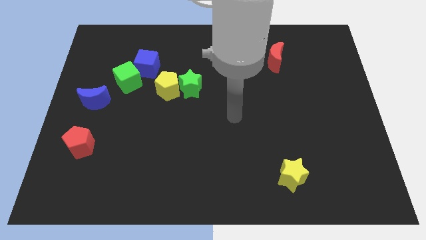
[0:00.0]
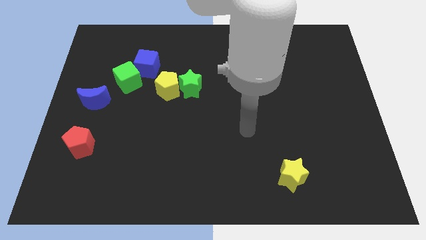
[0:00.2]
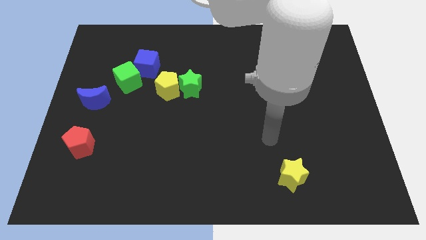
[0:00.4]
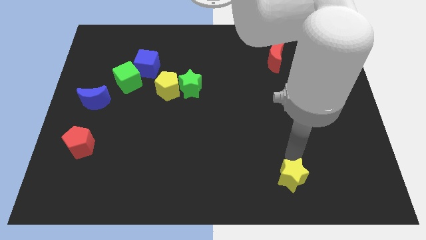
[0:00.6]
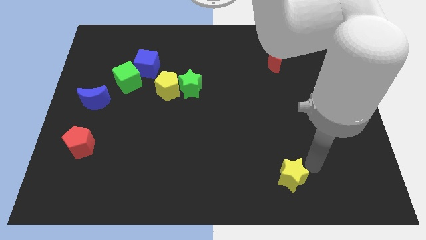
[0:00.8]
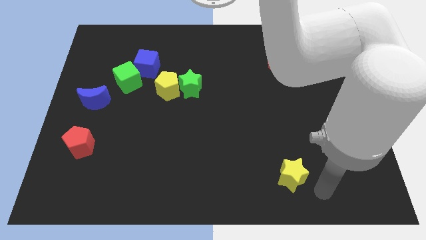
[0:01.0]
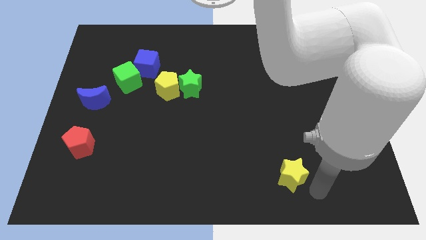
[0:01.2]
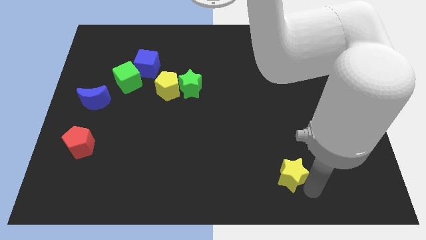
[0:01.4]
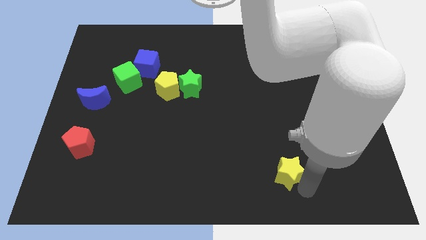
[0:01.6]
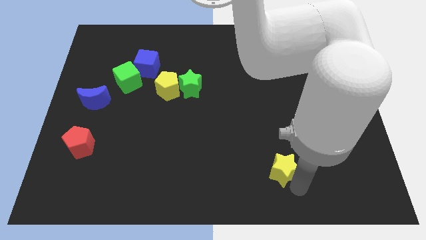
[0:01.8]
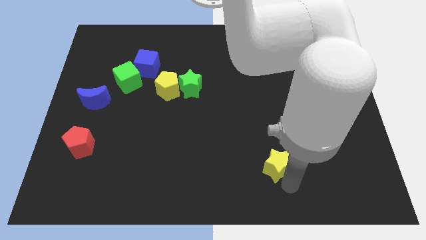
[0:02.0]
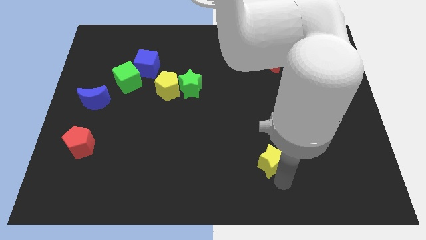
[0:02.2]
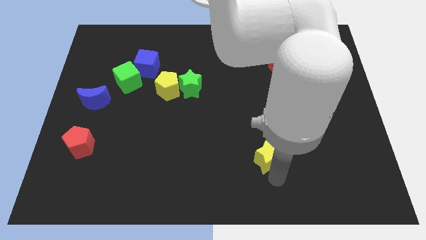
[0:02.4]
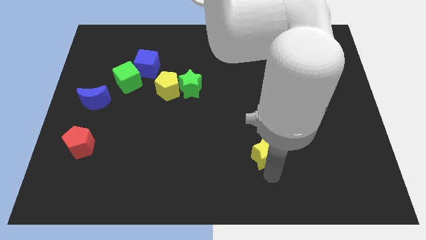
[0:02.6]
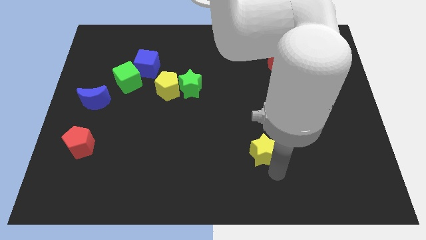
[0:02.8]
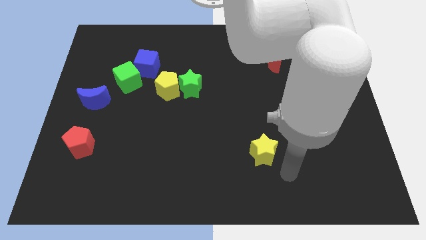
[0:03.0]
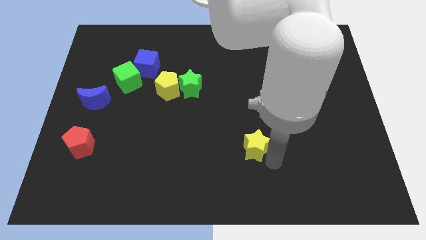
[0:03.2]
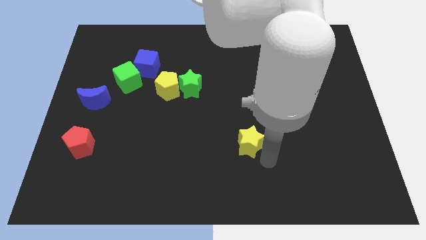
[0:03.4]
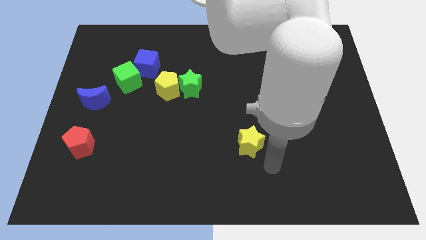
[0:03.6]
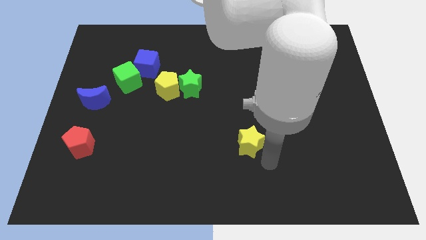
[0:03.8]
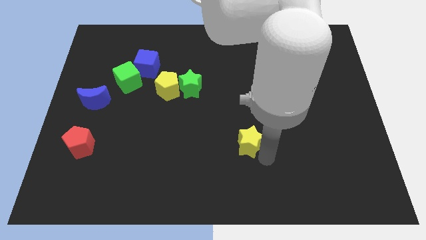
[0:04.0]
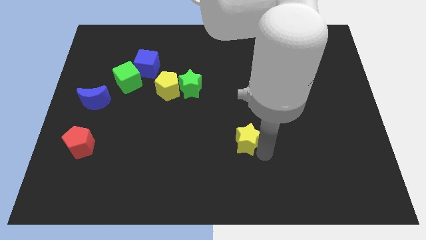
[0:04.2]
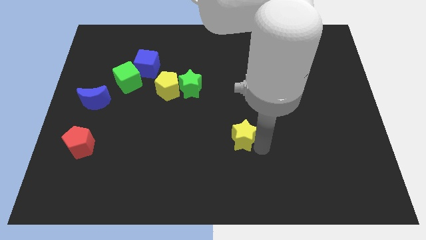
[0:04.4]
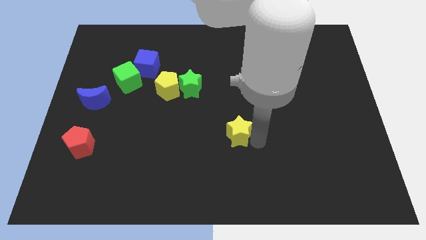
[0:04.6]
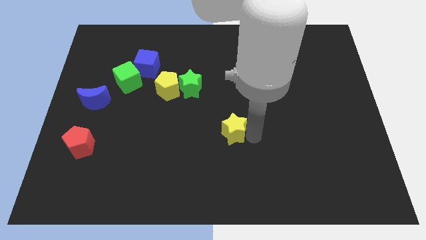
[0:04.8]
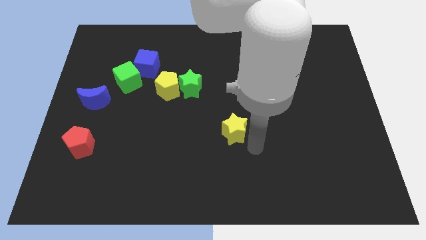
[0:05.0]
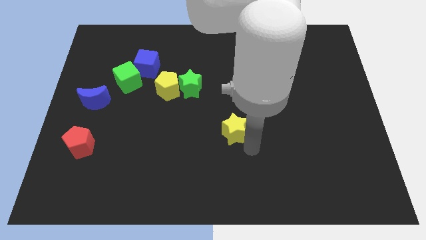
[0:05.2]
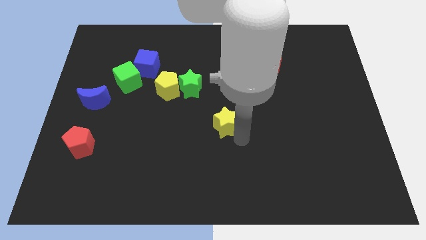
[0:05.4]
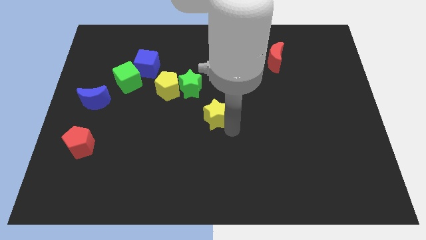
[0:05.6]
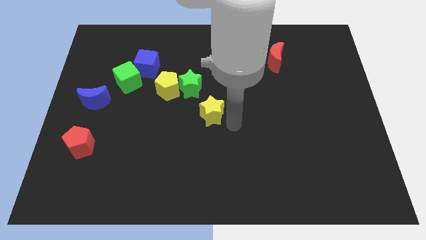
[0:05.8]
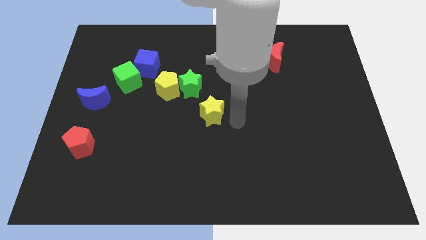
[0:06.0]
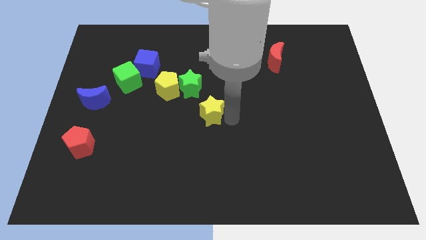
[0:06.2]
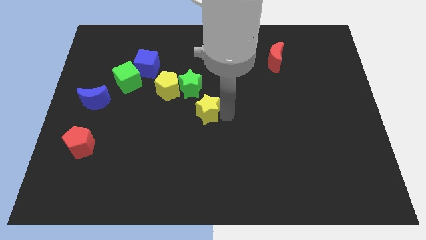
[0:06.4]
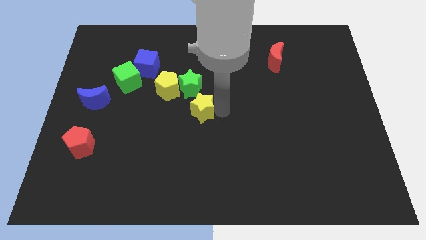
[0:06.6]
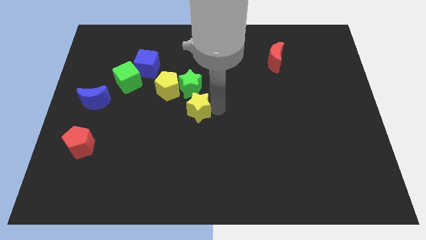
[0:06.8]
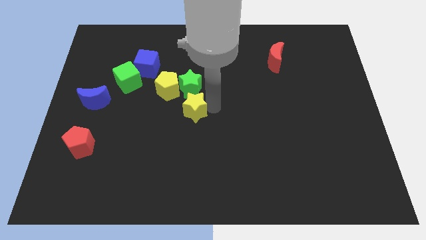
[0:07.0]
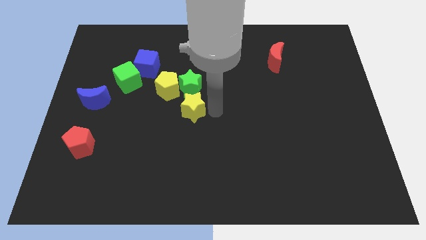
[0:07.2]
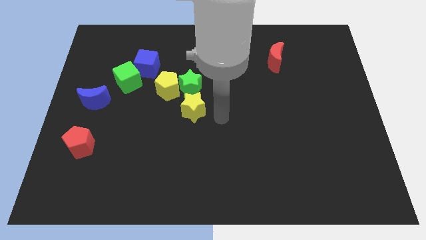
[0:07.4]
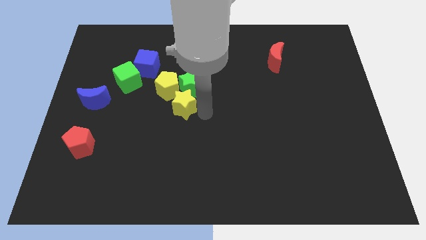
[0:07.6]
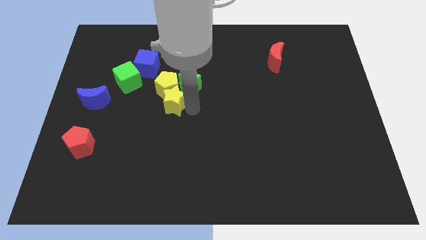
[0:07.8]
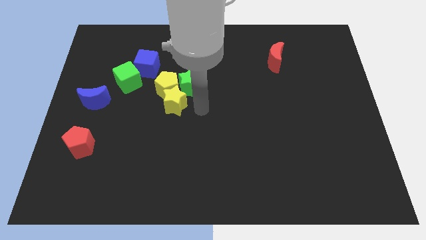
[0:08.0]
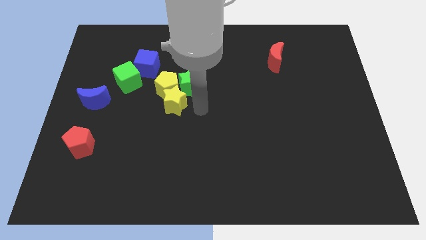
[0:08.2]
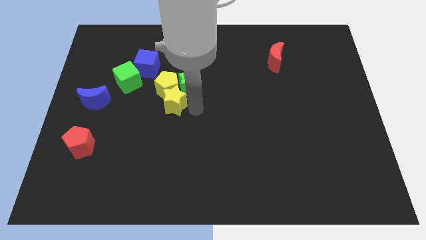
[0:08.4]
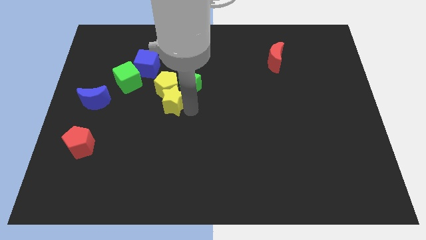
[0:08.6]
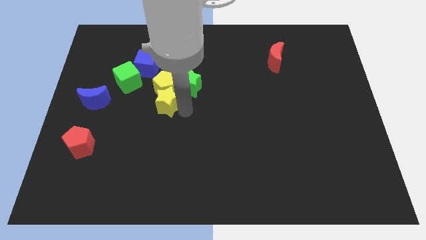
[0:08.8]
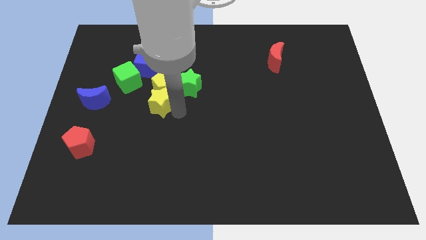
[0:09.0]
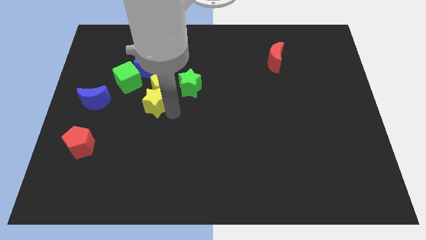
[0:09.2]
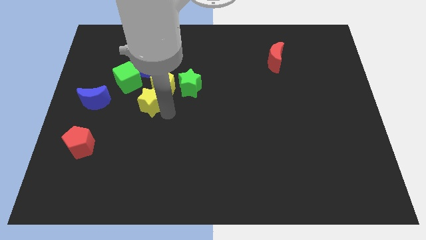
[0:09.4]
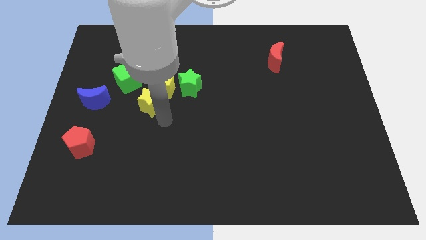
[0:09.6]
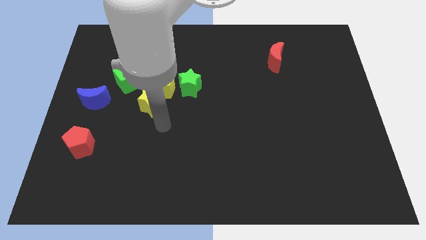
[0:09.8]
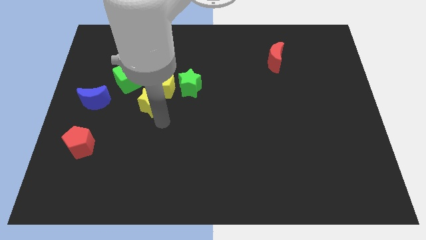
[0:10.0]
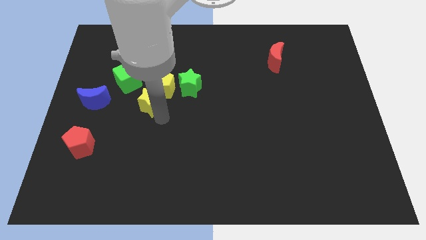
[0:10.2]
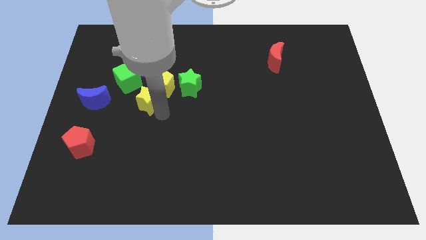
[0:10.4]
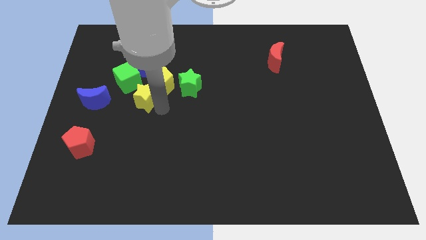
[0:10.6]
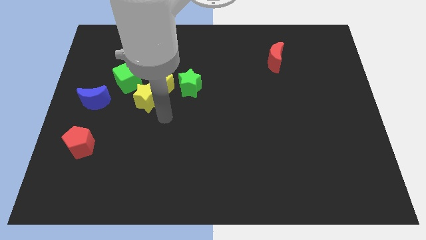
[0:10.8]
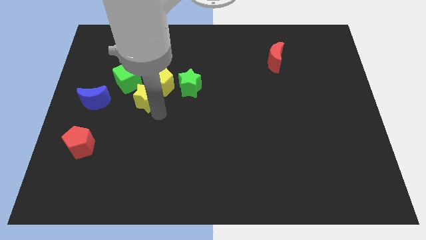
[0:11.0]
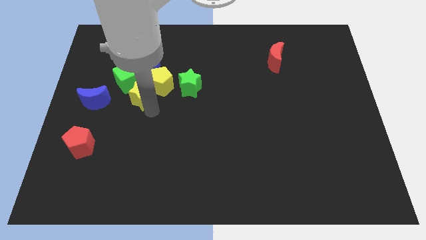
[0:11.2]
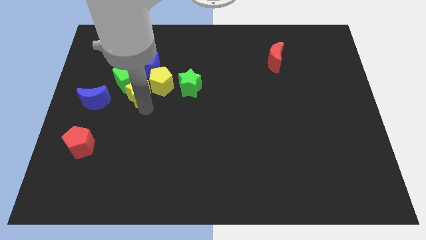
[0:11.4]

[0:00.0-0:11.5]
move the yellow star close to the green cube

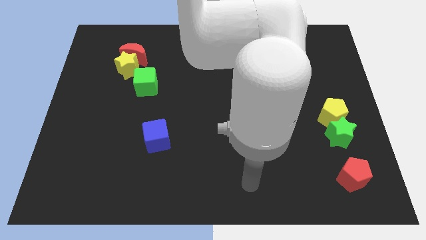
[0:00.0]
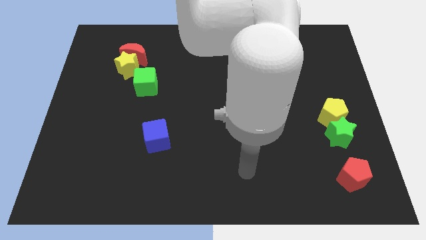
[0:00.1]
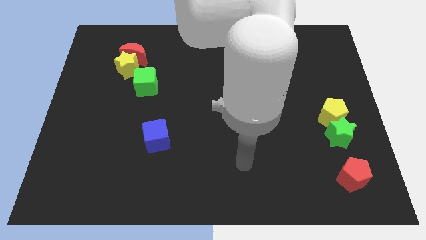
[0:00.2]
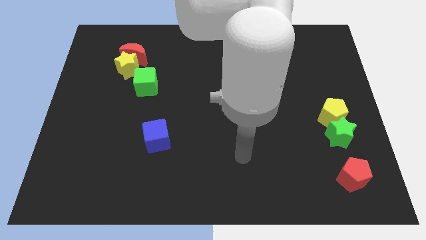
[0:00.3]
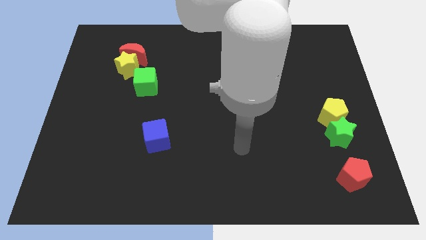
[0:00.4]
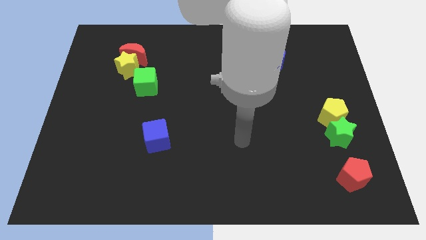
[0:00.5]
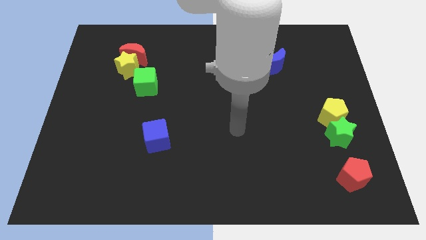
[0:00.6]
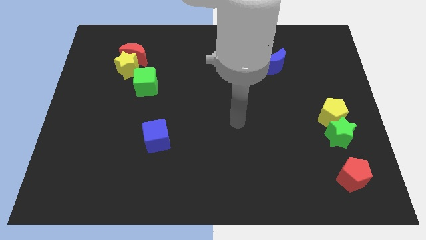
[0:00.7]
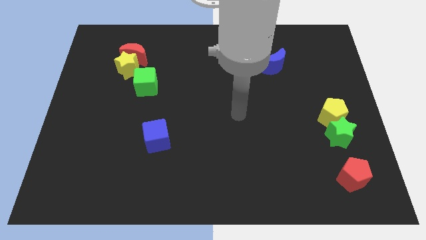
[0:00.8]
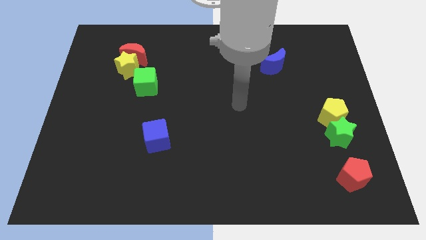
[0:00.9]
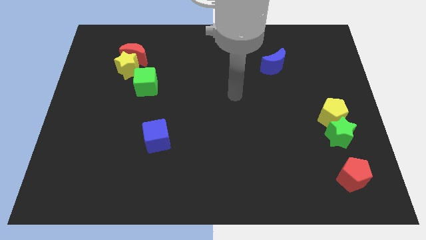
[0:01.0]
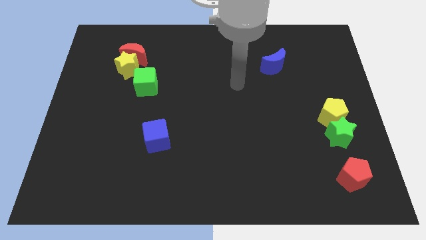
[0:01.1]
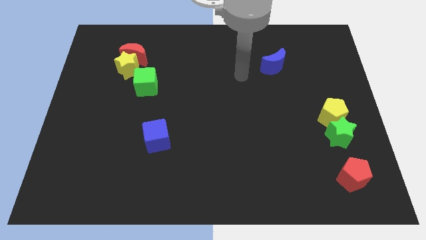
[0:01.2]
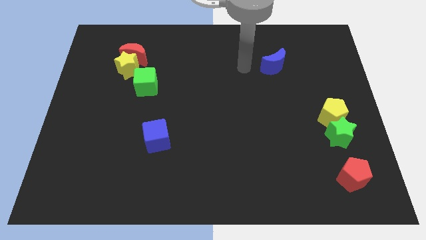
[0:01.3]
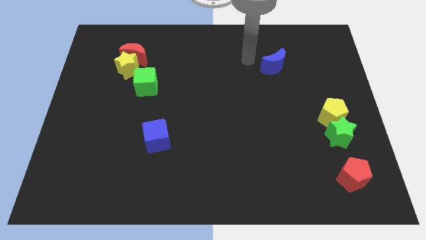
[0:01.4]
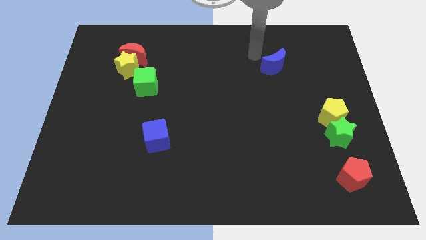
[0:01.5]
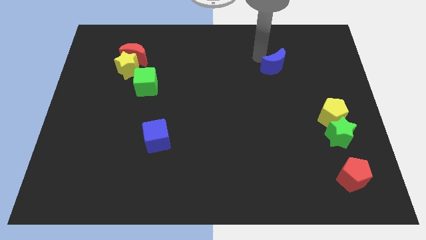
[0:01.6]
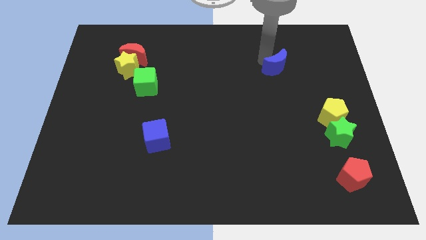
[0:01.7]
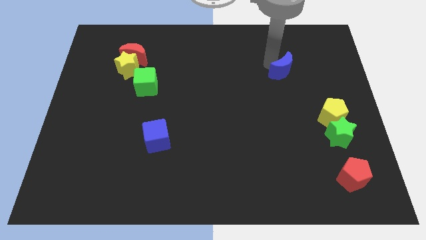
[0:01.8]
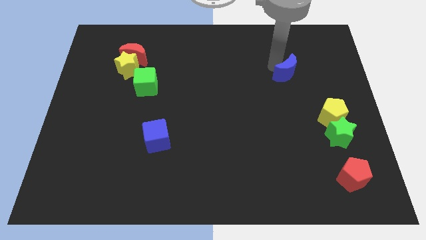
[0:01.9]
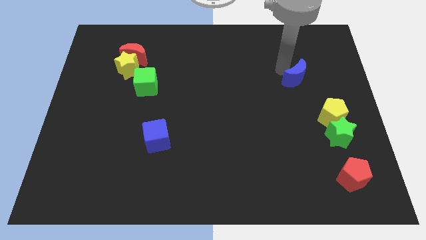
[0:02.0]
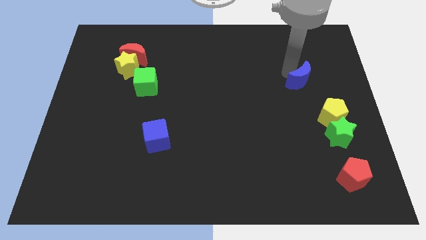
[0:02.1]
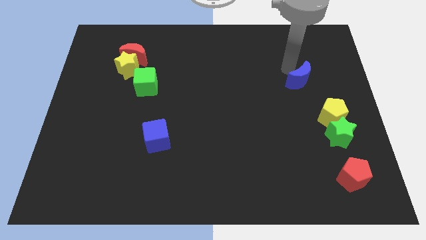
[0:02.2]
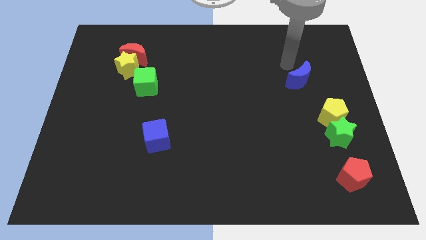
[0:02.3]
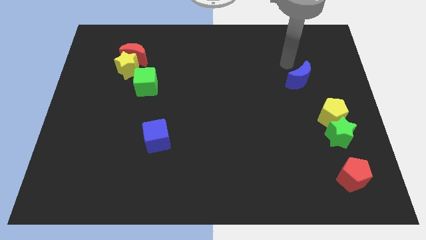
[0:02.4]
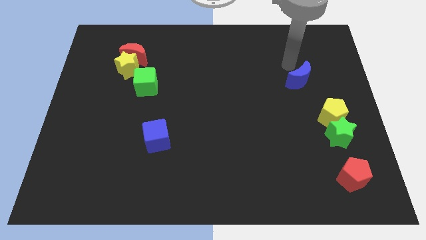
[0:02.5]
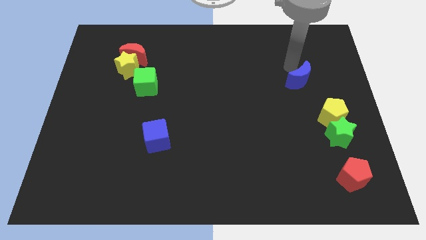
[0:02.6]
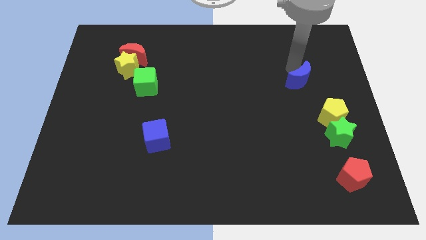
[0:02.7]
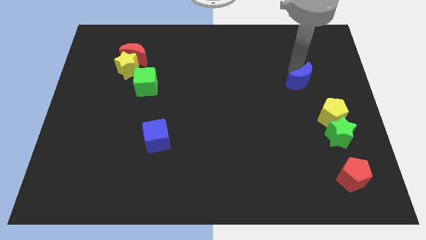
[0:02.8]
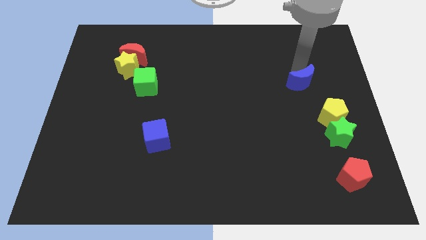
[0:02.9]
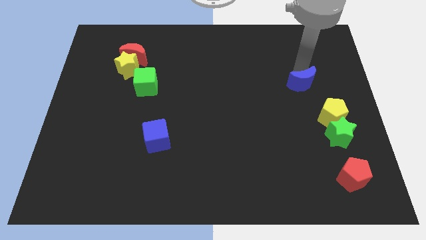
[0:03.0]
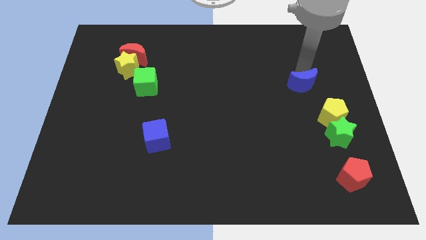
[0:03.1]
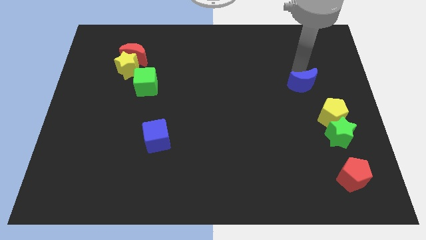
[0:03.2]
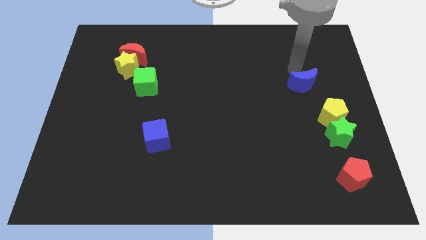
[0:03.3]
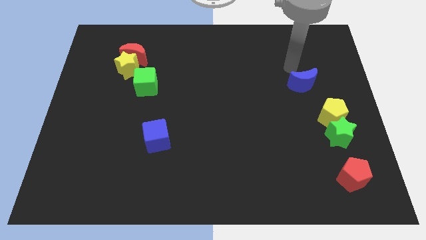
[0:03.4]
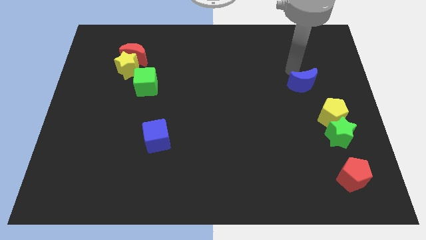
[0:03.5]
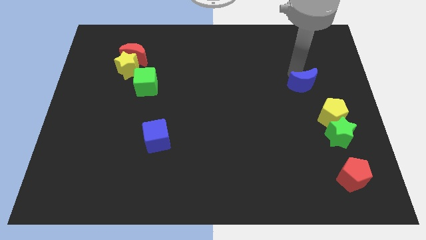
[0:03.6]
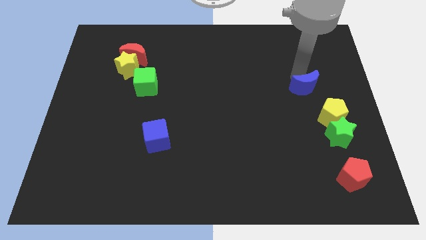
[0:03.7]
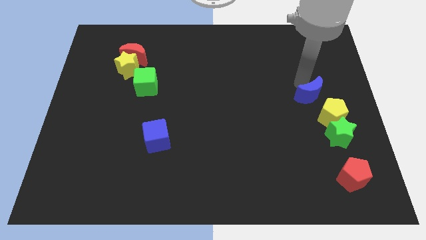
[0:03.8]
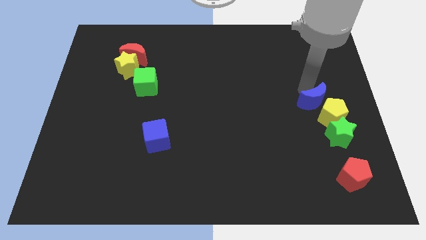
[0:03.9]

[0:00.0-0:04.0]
slide the blue moon next to the yellow pentagon
